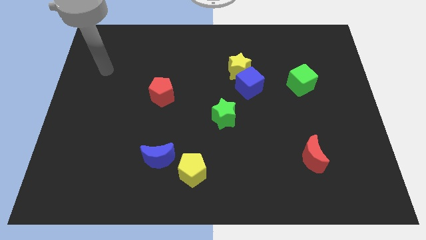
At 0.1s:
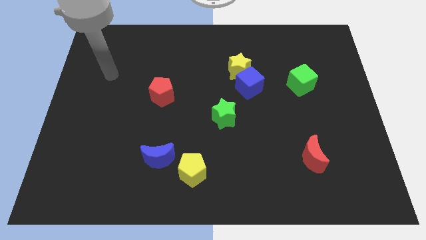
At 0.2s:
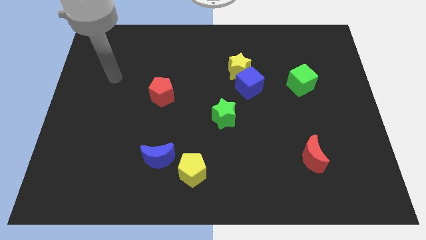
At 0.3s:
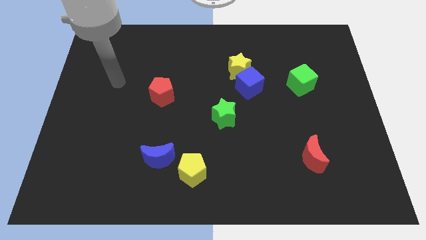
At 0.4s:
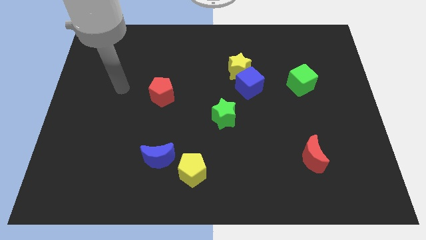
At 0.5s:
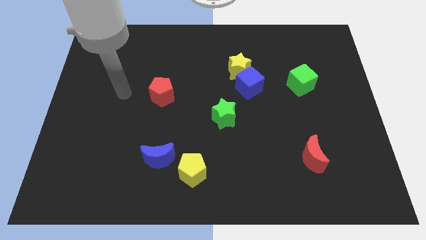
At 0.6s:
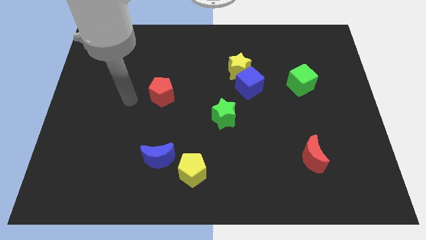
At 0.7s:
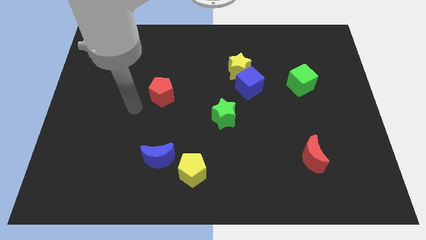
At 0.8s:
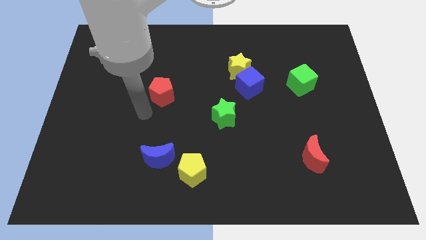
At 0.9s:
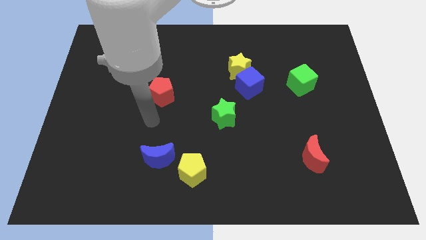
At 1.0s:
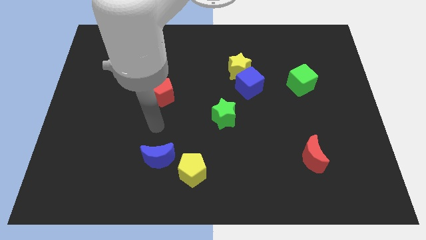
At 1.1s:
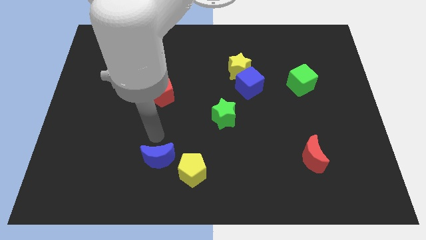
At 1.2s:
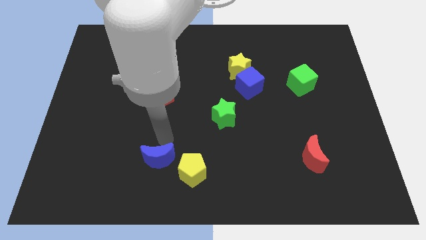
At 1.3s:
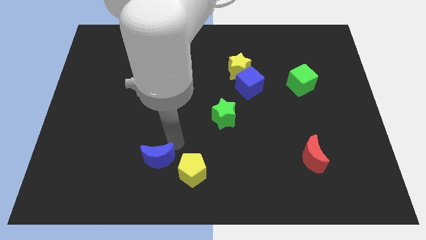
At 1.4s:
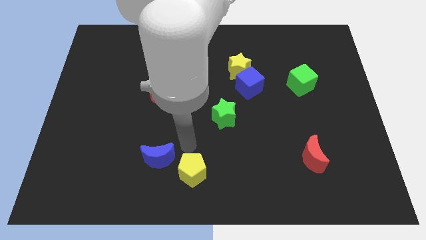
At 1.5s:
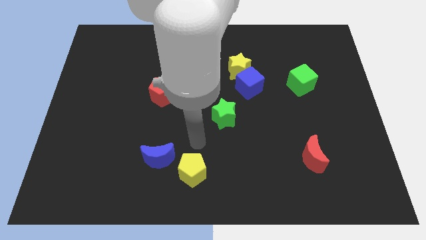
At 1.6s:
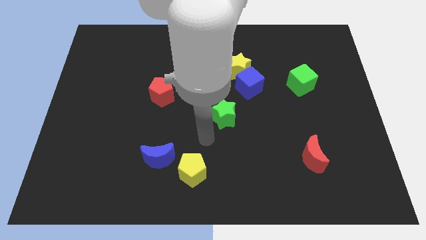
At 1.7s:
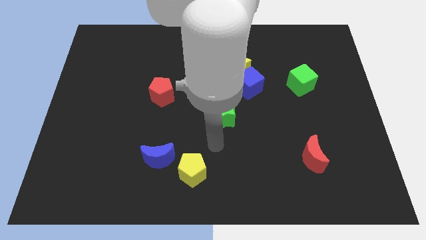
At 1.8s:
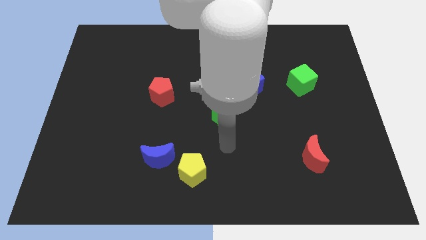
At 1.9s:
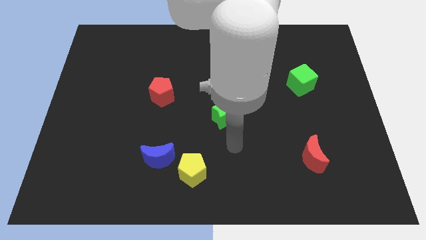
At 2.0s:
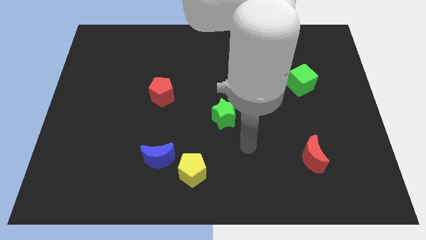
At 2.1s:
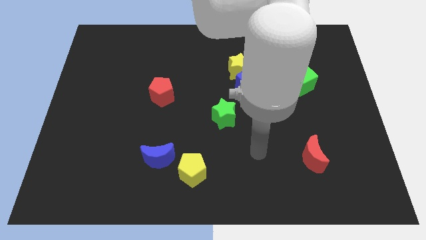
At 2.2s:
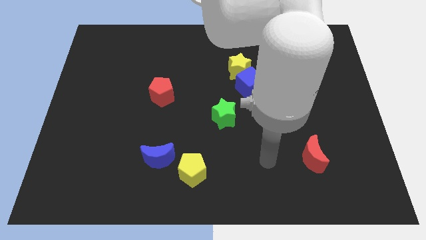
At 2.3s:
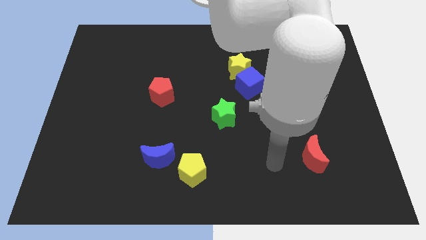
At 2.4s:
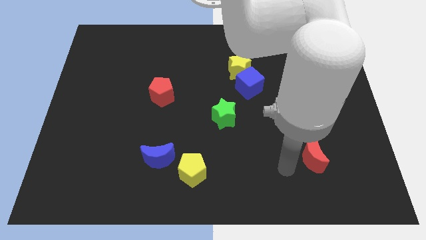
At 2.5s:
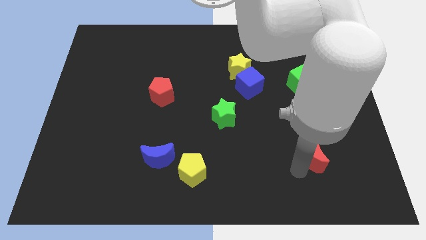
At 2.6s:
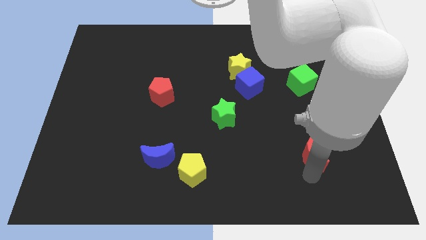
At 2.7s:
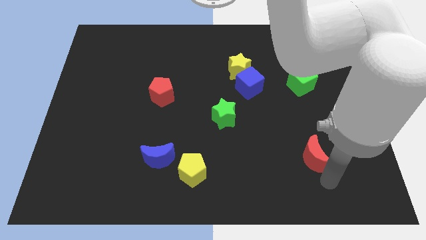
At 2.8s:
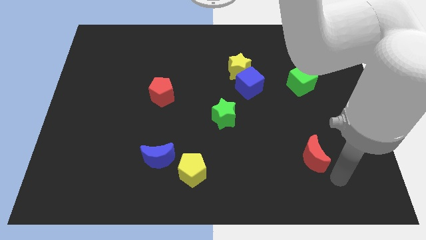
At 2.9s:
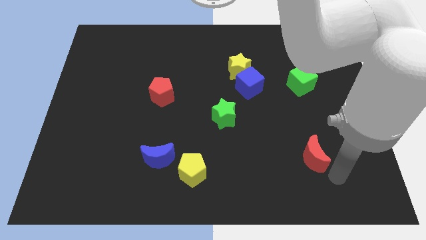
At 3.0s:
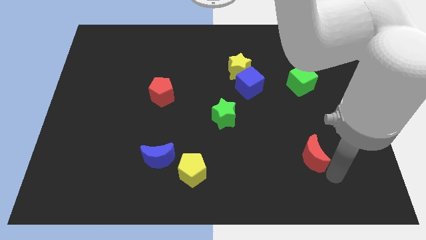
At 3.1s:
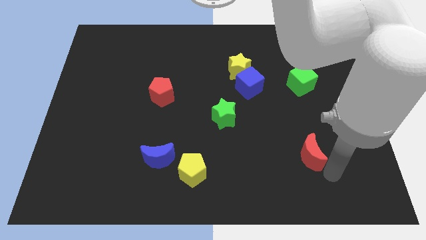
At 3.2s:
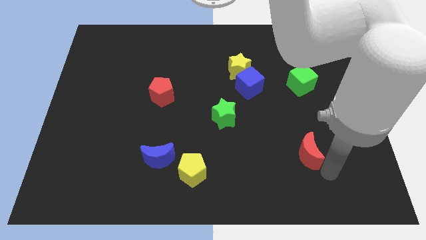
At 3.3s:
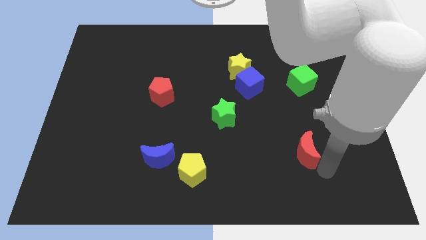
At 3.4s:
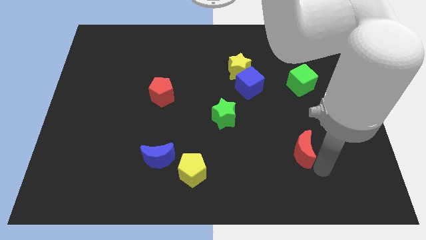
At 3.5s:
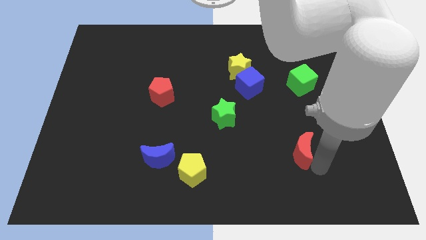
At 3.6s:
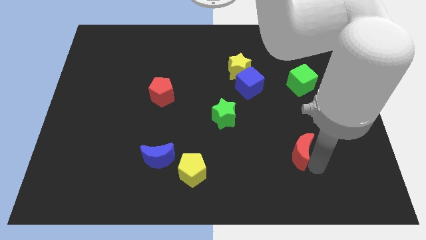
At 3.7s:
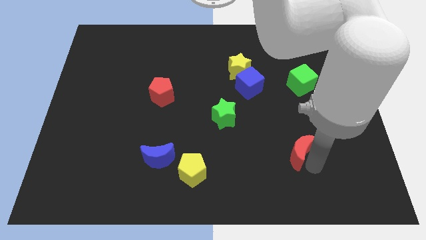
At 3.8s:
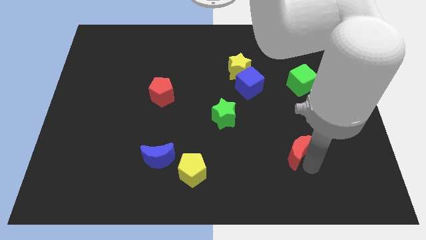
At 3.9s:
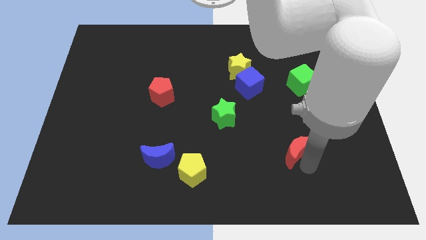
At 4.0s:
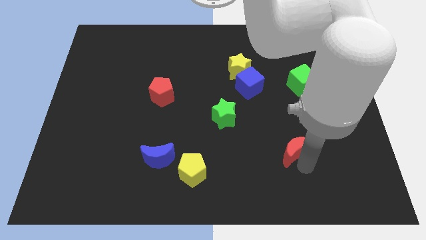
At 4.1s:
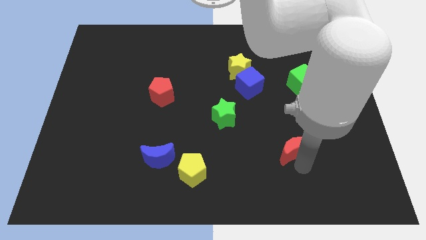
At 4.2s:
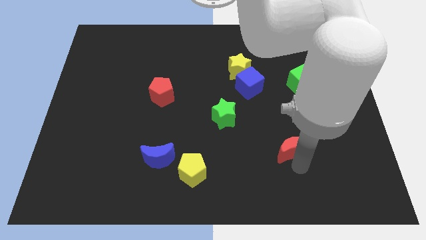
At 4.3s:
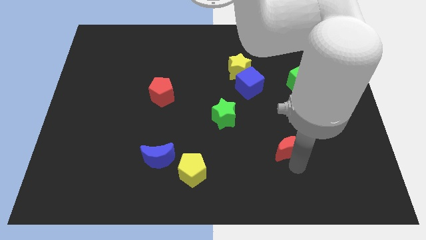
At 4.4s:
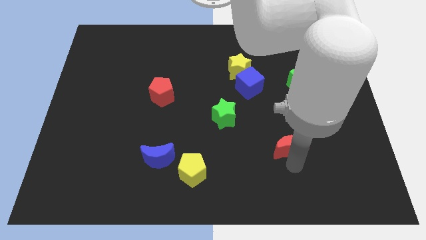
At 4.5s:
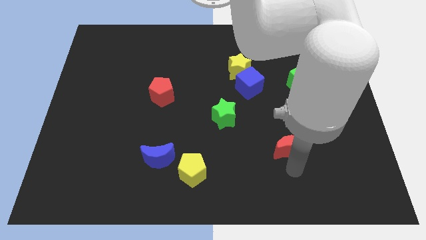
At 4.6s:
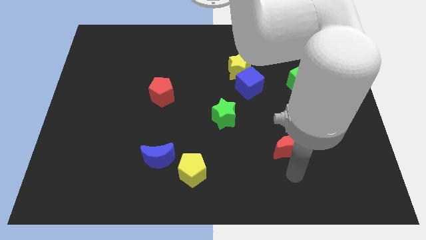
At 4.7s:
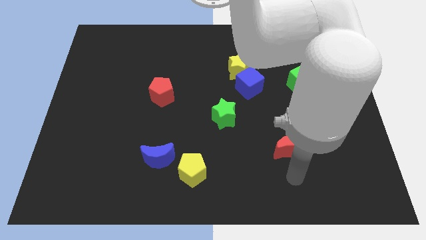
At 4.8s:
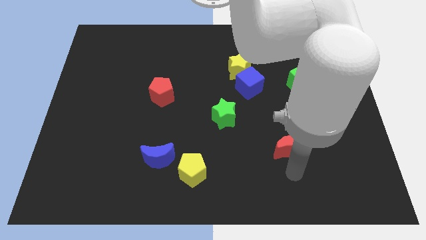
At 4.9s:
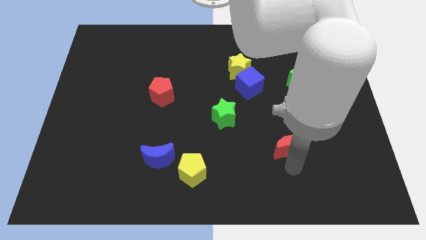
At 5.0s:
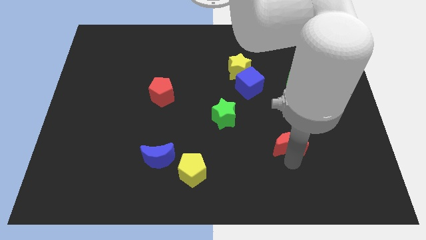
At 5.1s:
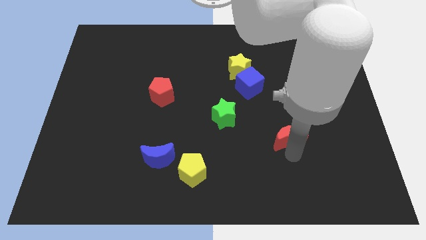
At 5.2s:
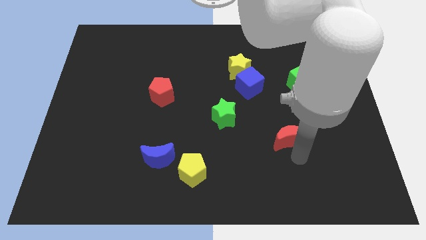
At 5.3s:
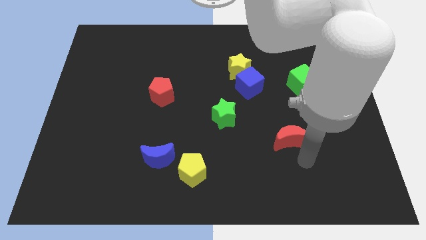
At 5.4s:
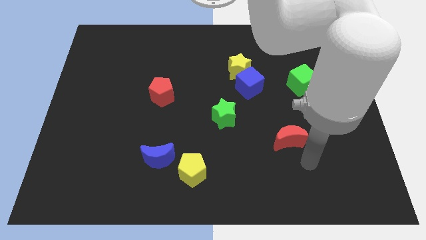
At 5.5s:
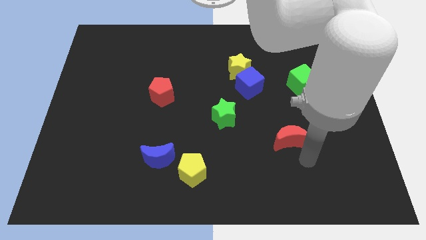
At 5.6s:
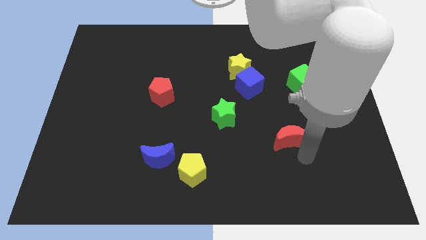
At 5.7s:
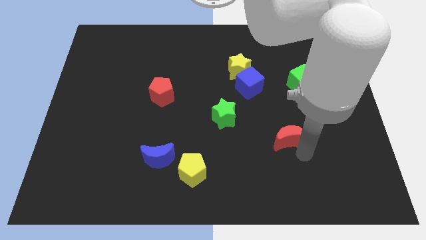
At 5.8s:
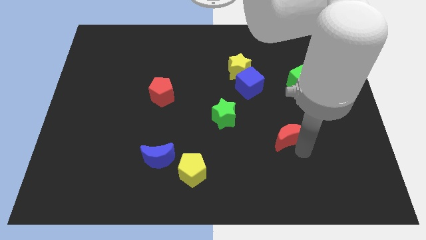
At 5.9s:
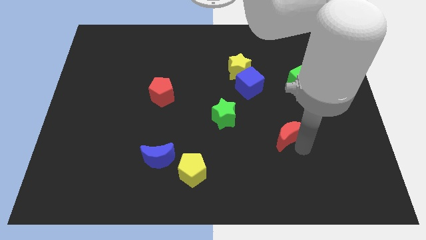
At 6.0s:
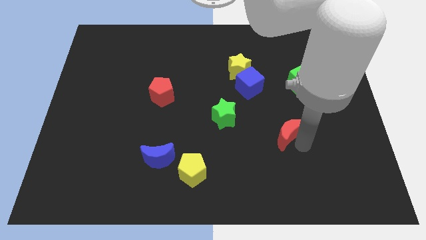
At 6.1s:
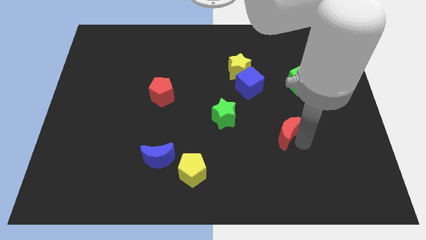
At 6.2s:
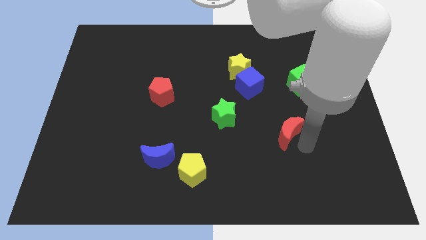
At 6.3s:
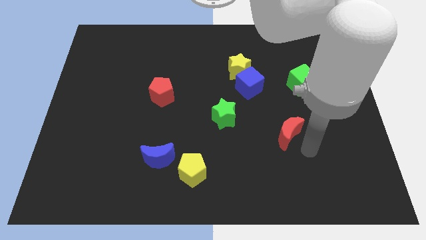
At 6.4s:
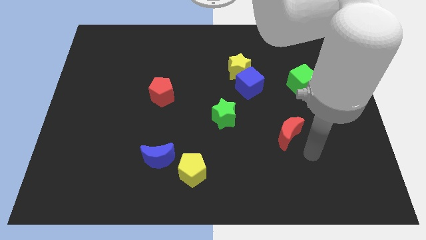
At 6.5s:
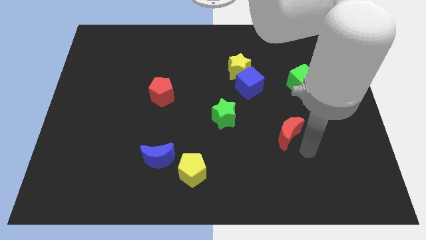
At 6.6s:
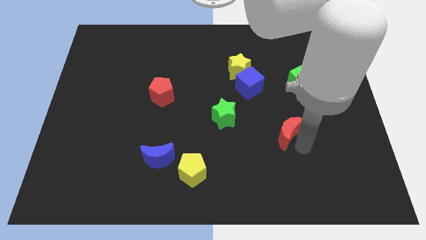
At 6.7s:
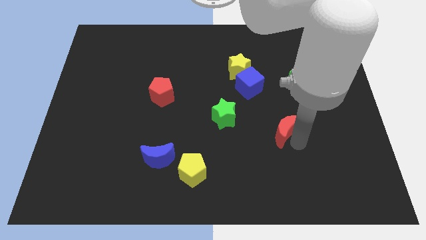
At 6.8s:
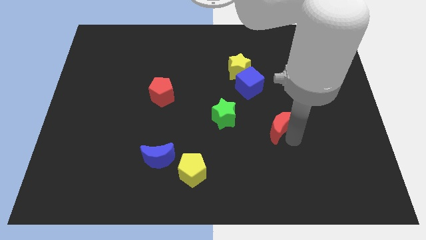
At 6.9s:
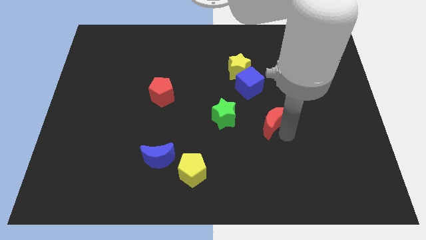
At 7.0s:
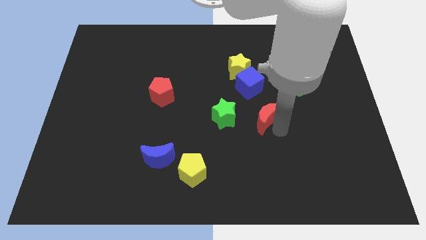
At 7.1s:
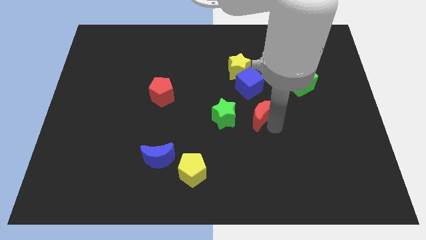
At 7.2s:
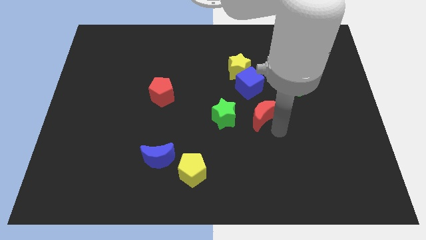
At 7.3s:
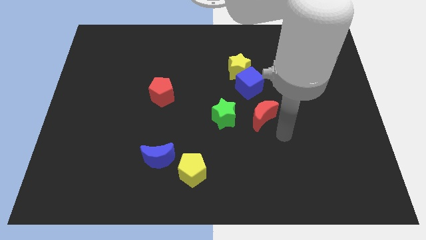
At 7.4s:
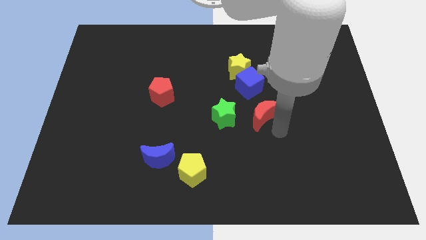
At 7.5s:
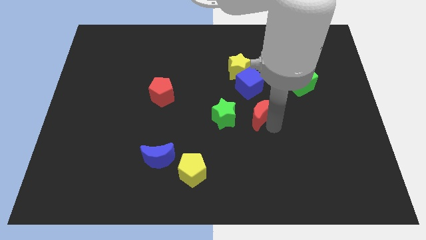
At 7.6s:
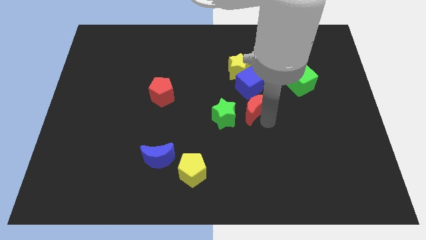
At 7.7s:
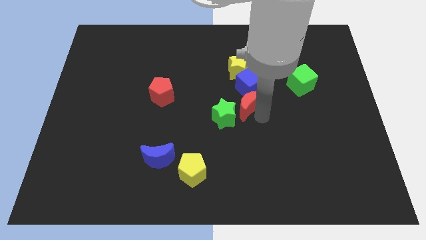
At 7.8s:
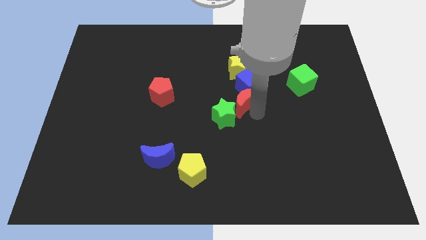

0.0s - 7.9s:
slide the red moon up and left diagonally

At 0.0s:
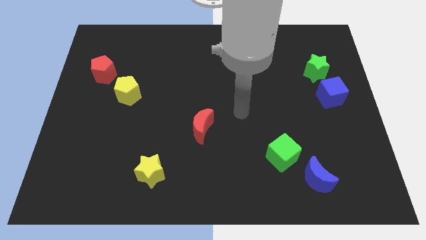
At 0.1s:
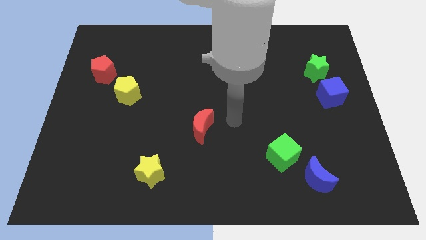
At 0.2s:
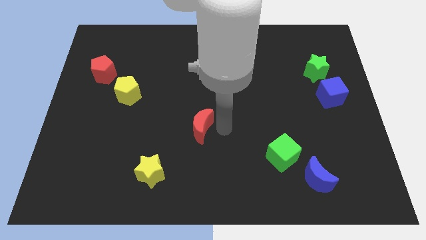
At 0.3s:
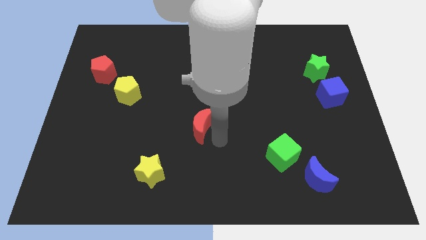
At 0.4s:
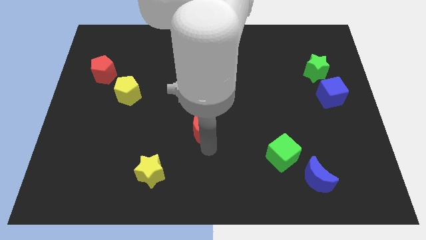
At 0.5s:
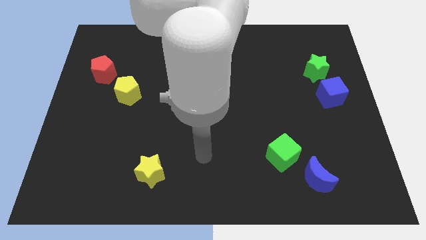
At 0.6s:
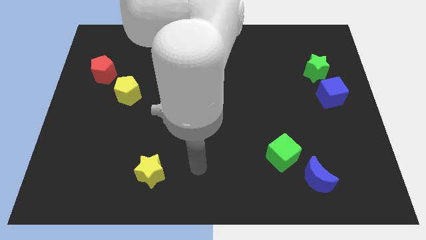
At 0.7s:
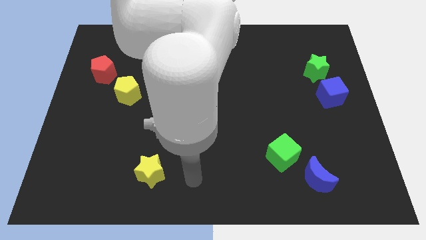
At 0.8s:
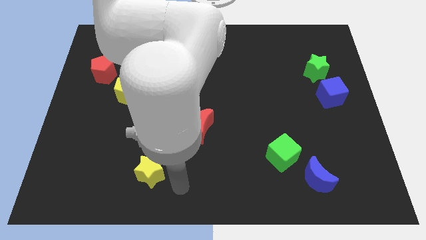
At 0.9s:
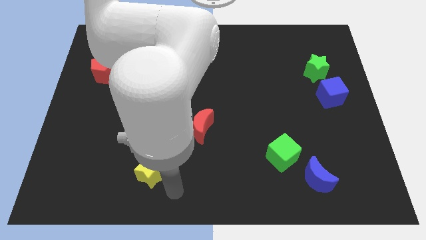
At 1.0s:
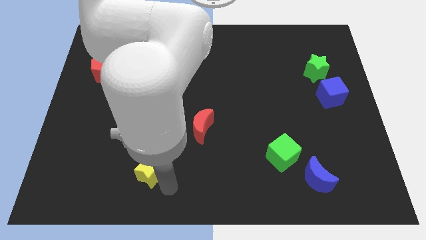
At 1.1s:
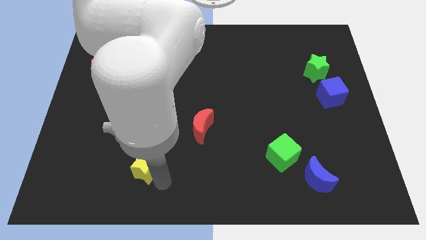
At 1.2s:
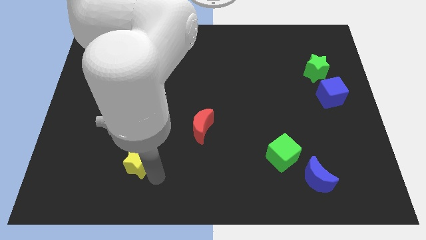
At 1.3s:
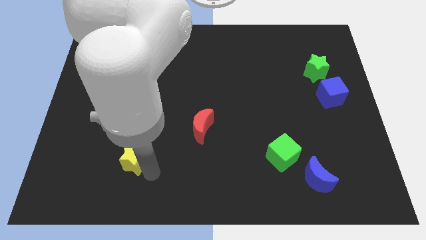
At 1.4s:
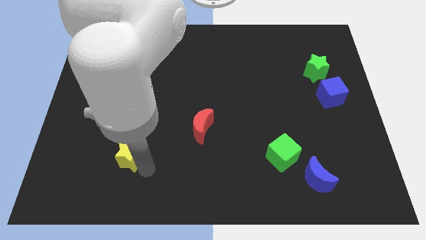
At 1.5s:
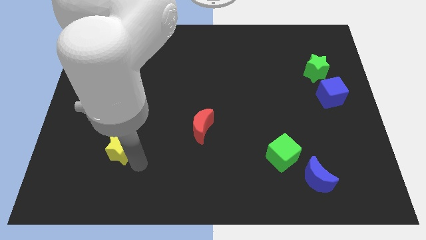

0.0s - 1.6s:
move the yellow star diagonally up and left a little bit
